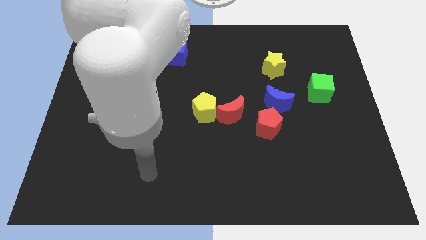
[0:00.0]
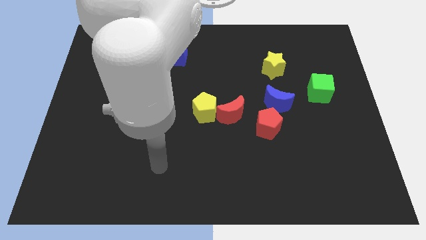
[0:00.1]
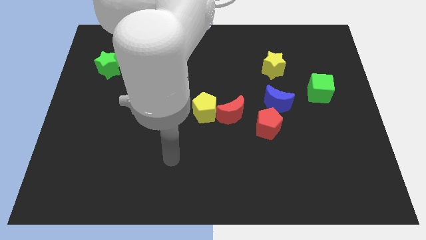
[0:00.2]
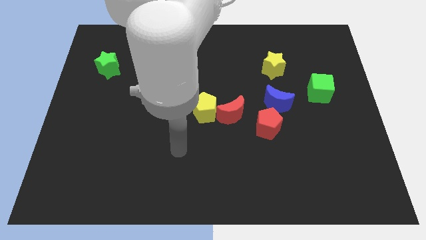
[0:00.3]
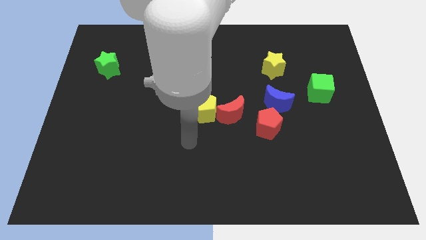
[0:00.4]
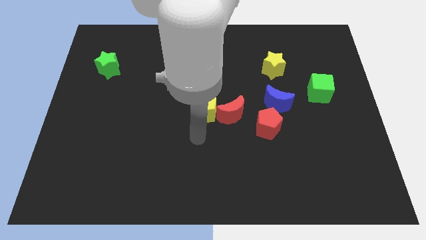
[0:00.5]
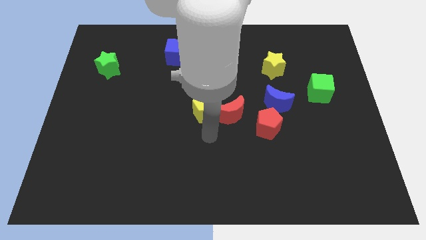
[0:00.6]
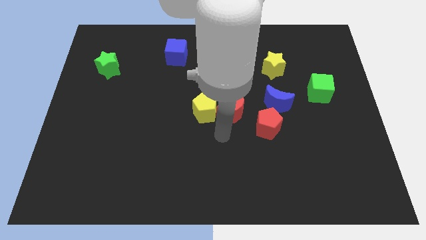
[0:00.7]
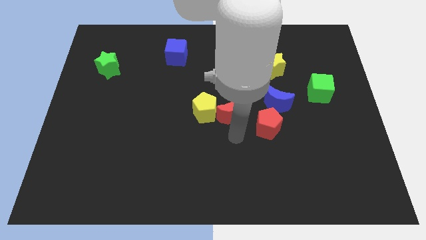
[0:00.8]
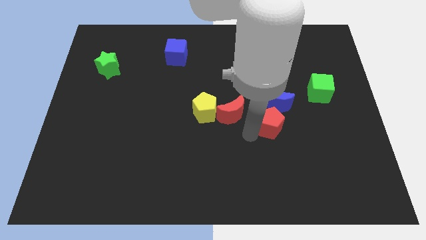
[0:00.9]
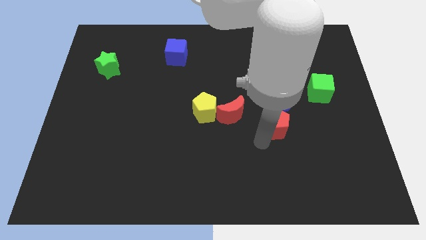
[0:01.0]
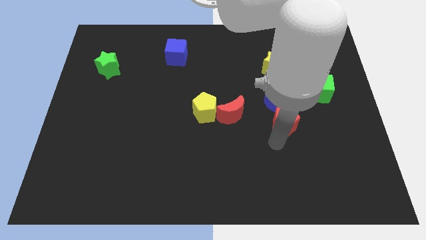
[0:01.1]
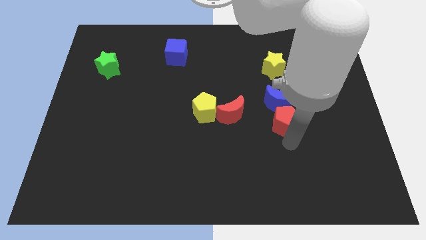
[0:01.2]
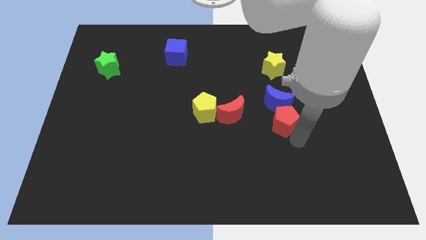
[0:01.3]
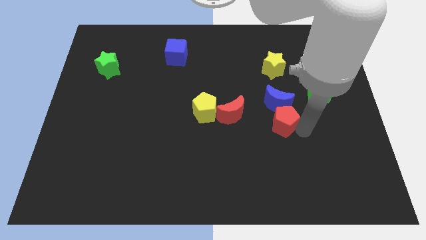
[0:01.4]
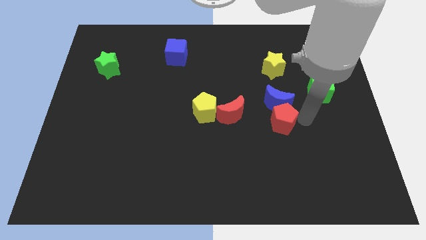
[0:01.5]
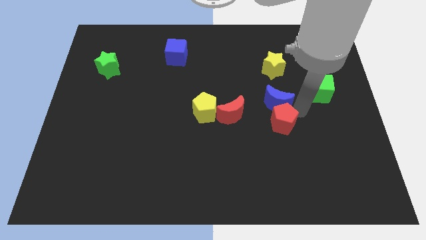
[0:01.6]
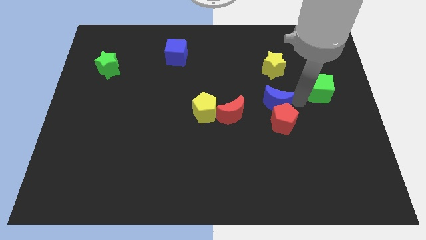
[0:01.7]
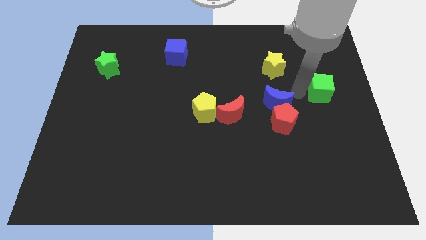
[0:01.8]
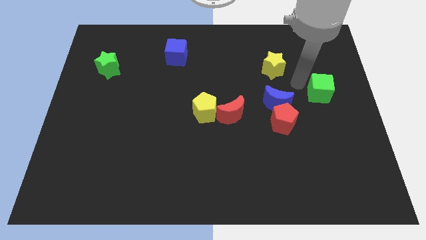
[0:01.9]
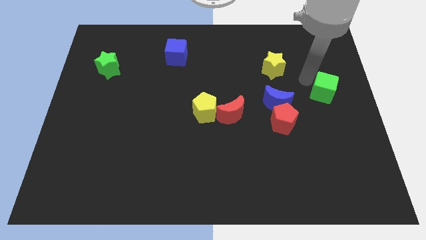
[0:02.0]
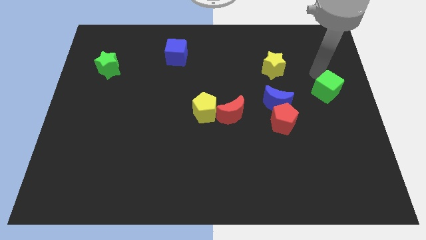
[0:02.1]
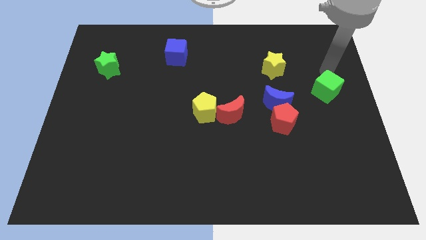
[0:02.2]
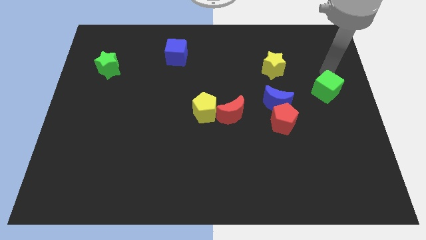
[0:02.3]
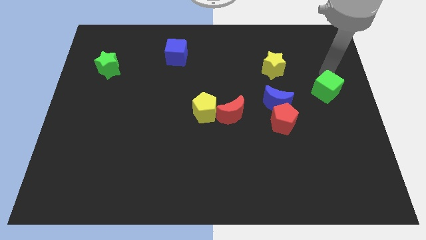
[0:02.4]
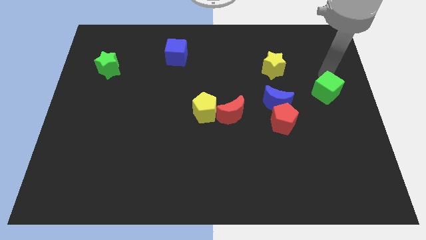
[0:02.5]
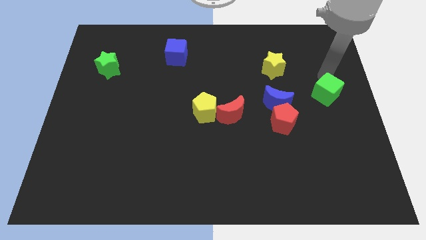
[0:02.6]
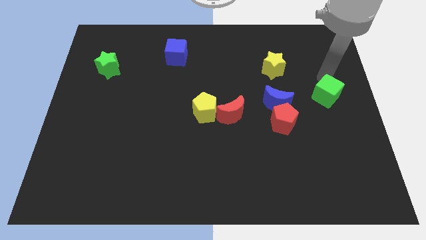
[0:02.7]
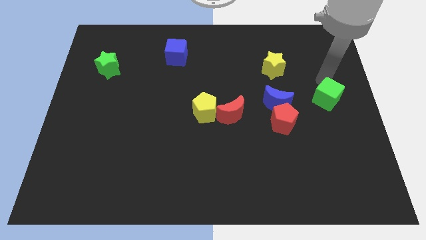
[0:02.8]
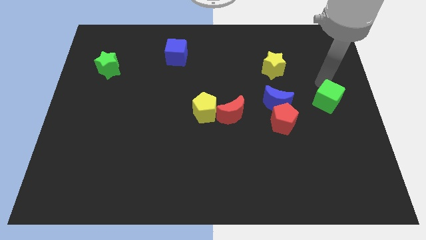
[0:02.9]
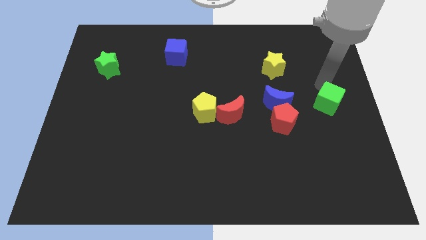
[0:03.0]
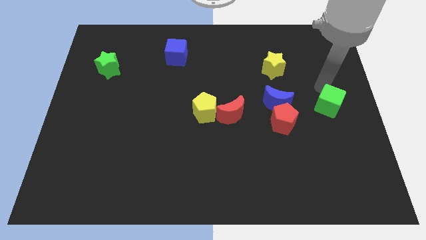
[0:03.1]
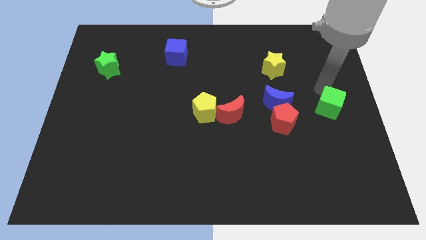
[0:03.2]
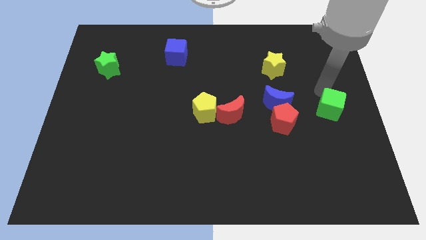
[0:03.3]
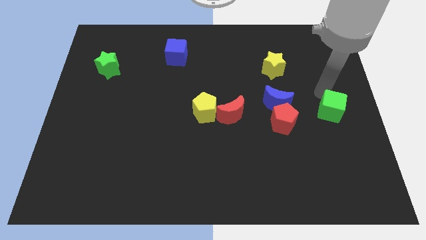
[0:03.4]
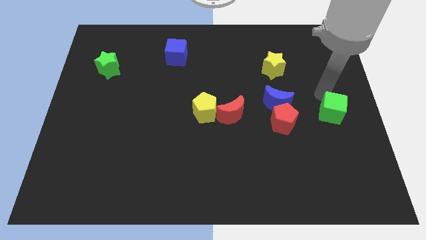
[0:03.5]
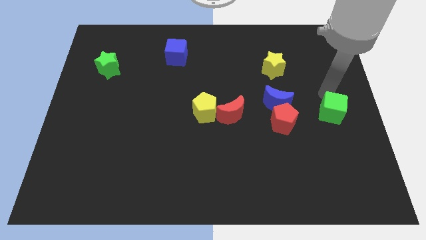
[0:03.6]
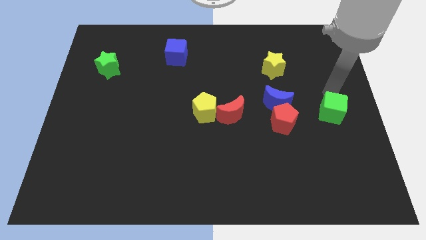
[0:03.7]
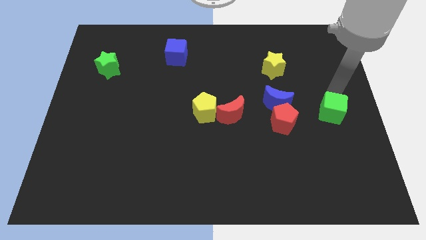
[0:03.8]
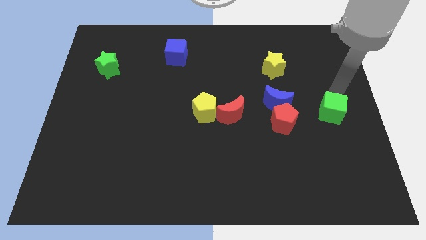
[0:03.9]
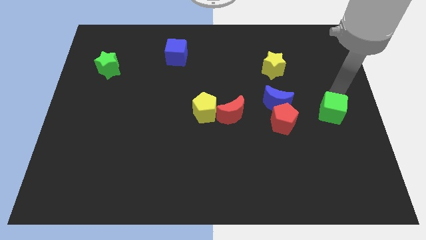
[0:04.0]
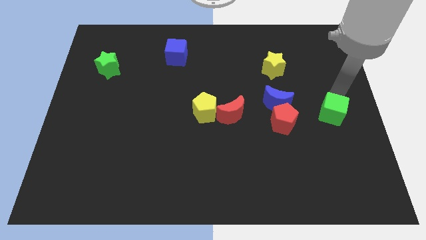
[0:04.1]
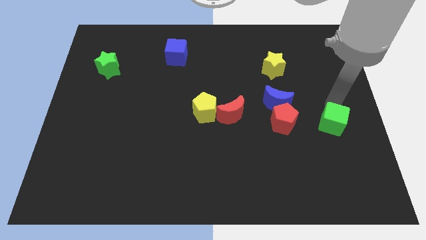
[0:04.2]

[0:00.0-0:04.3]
slightly push the green cube down

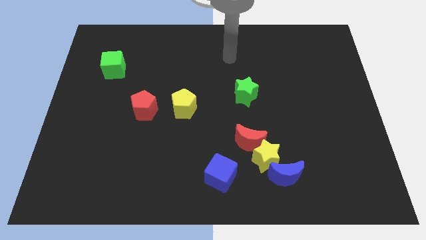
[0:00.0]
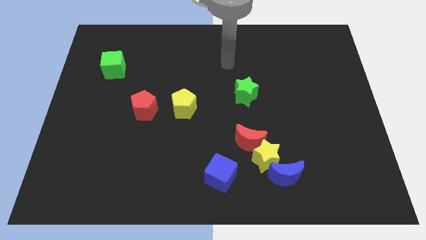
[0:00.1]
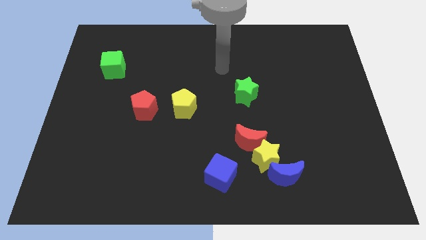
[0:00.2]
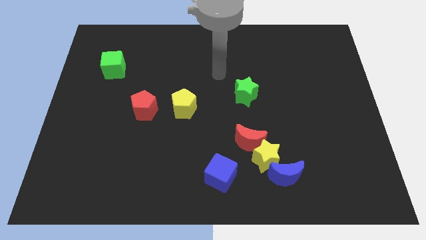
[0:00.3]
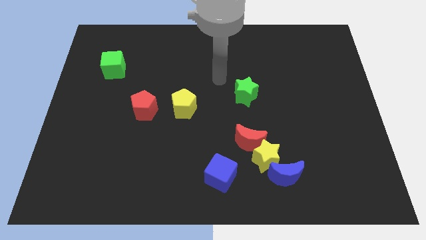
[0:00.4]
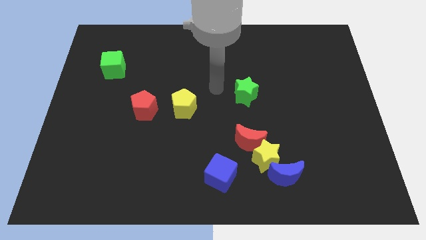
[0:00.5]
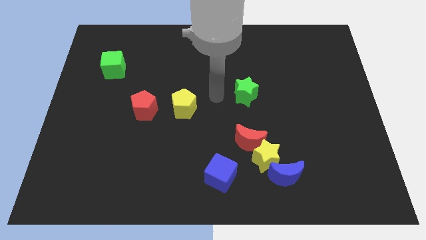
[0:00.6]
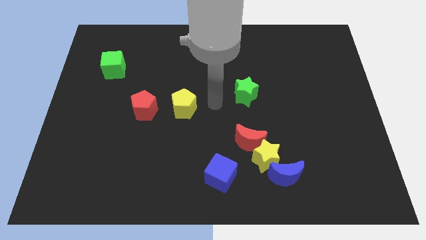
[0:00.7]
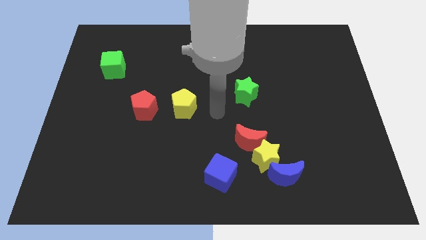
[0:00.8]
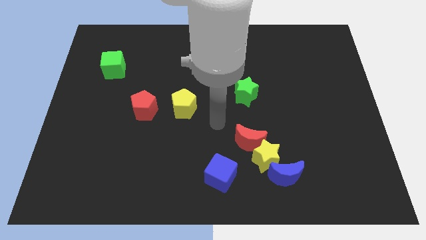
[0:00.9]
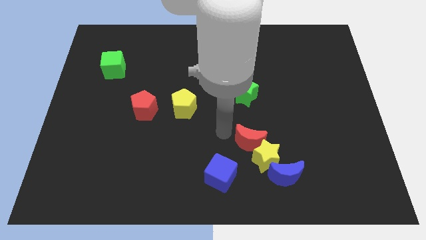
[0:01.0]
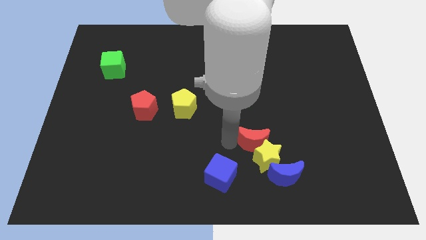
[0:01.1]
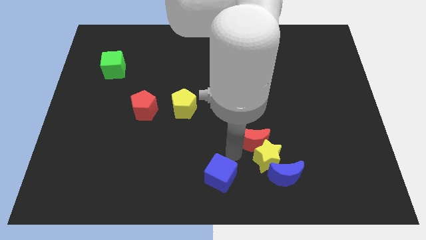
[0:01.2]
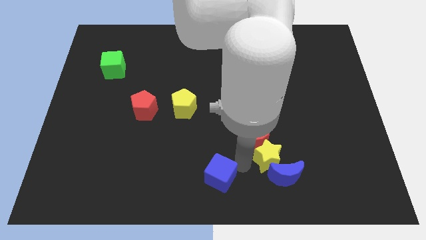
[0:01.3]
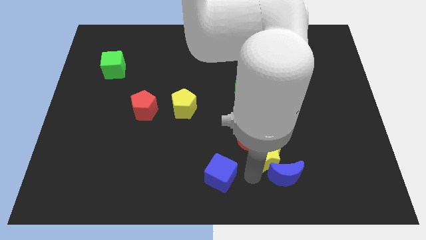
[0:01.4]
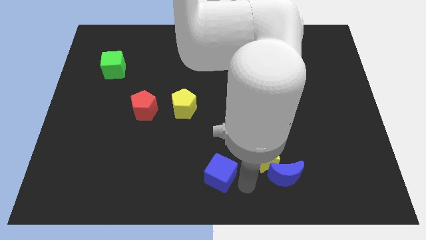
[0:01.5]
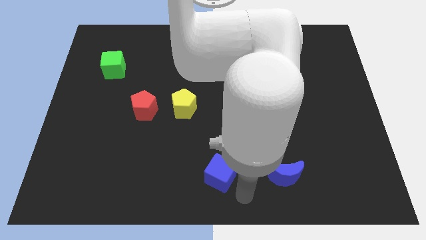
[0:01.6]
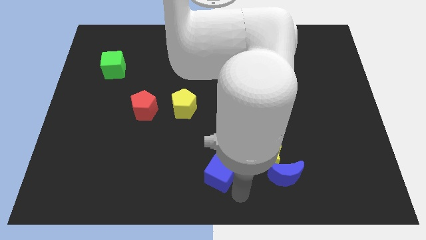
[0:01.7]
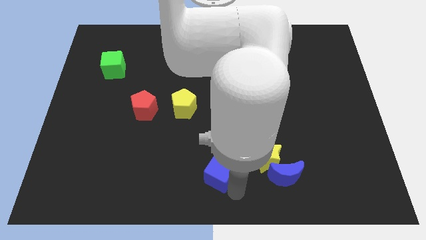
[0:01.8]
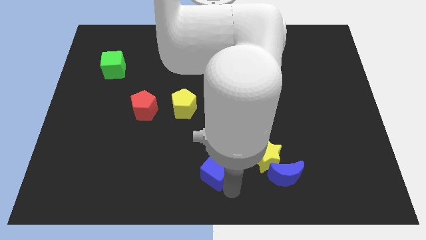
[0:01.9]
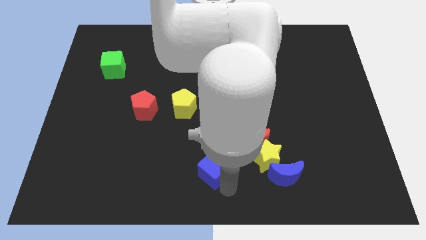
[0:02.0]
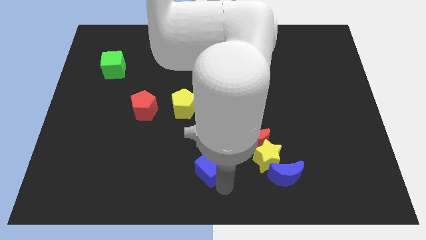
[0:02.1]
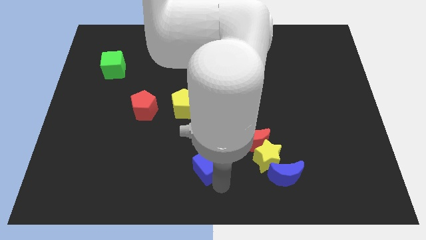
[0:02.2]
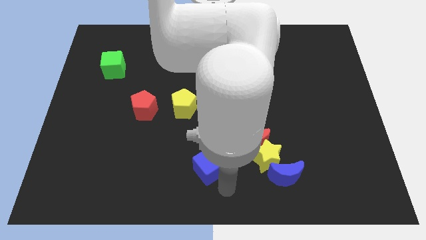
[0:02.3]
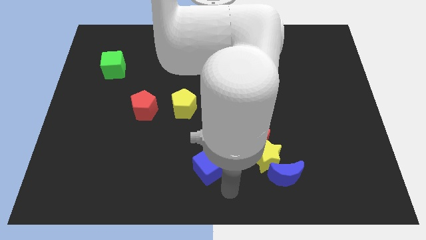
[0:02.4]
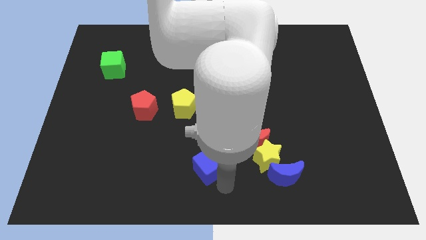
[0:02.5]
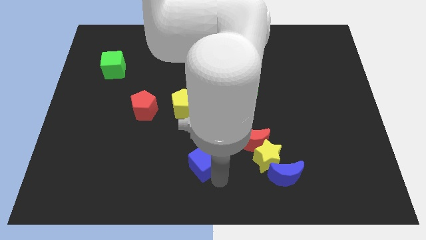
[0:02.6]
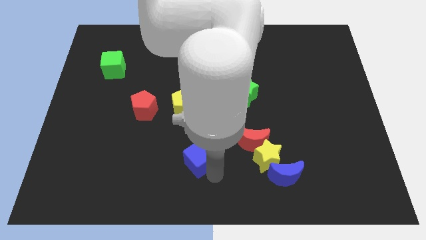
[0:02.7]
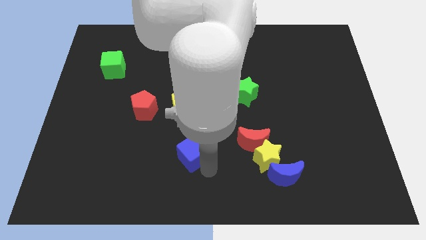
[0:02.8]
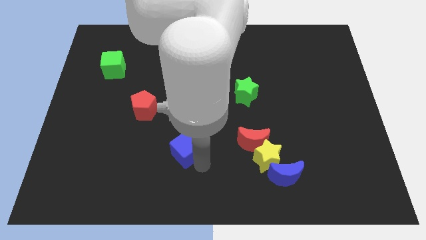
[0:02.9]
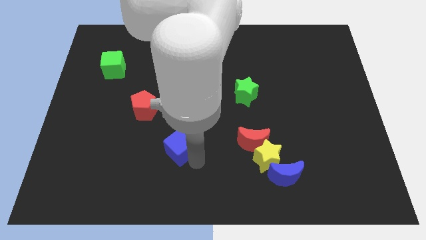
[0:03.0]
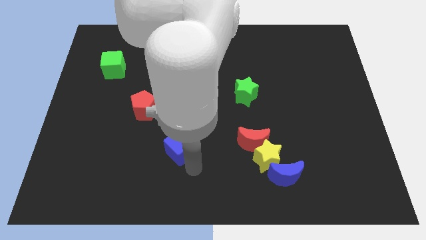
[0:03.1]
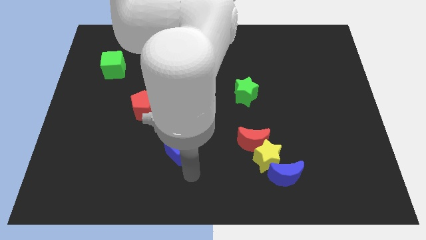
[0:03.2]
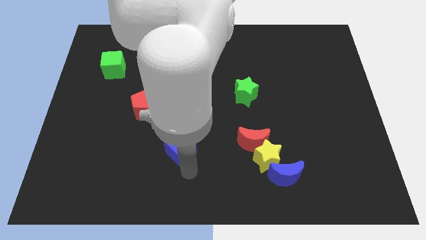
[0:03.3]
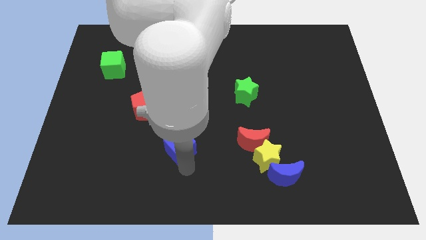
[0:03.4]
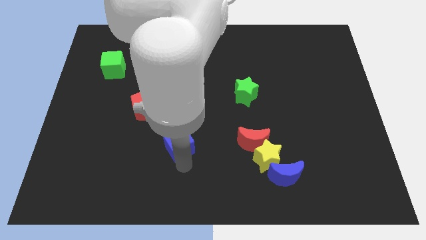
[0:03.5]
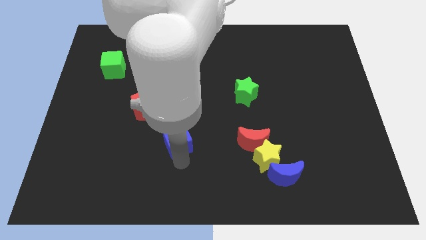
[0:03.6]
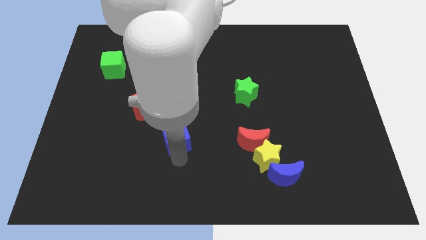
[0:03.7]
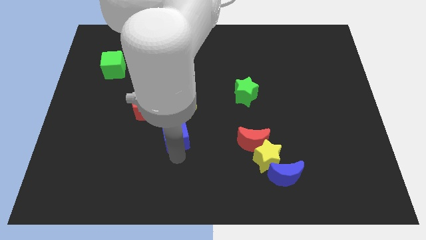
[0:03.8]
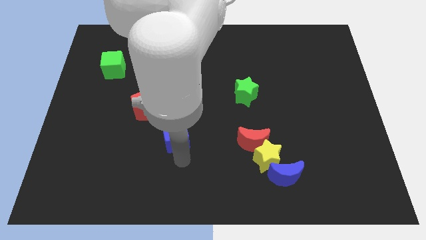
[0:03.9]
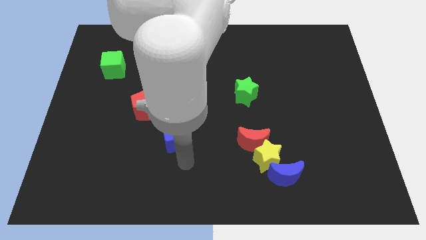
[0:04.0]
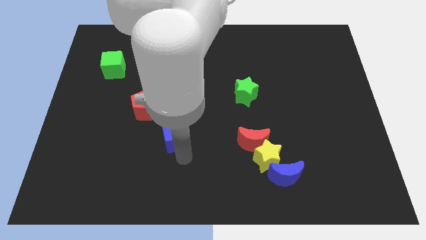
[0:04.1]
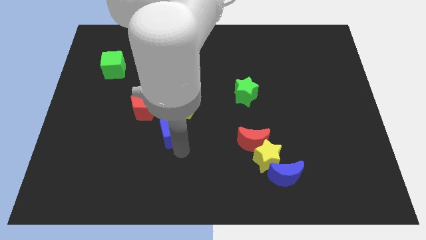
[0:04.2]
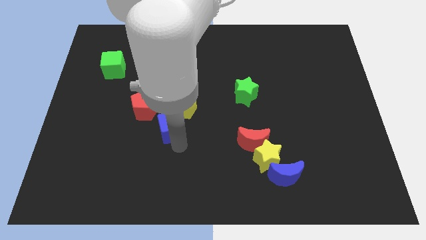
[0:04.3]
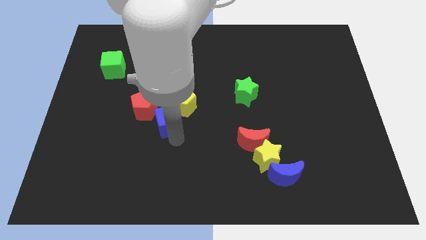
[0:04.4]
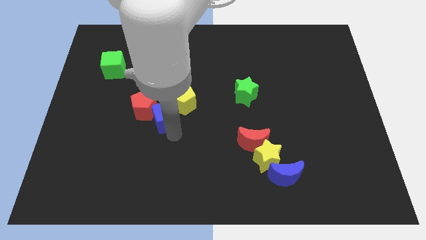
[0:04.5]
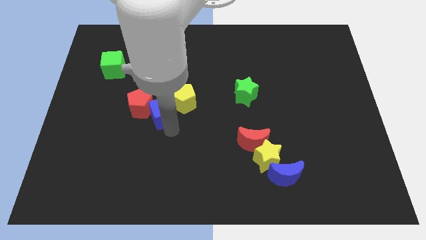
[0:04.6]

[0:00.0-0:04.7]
move the blue cube diagonally upwards and to the left
